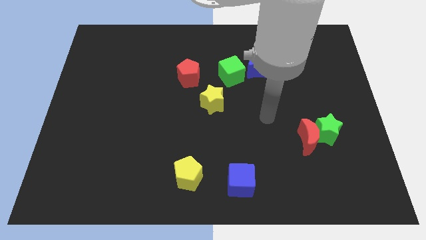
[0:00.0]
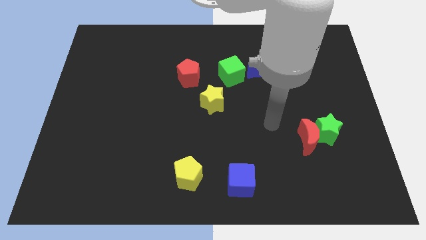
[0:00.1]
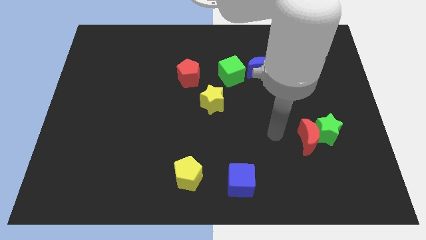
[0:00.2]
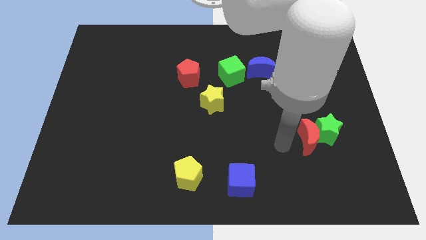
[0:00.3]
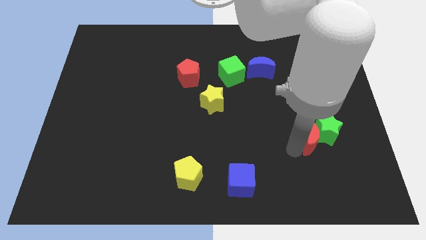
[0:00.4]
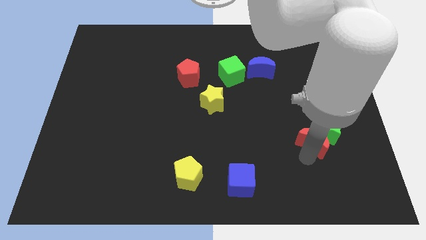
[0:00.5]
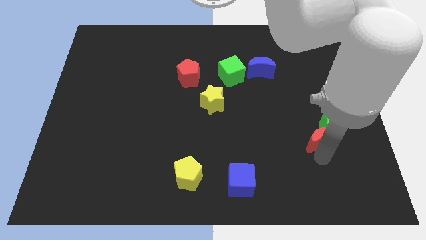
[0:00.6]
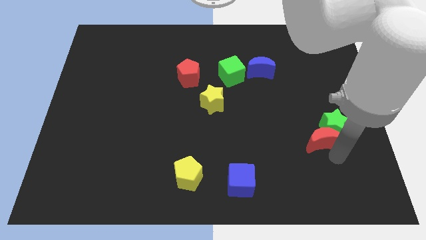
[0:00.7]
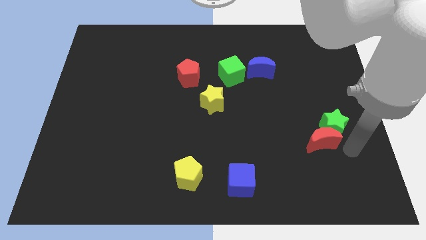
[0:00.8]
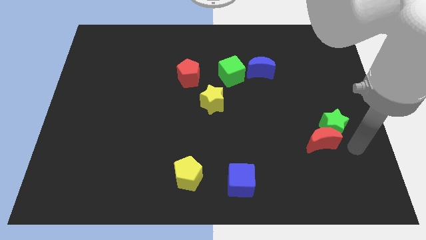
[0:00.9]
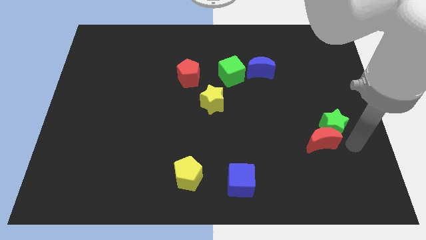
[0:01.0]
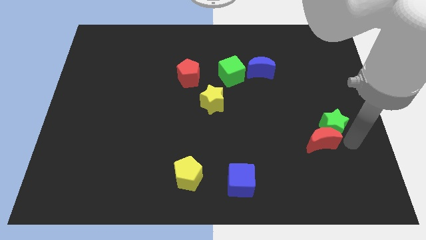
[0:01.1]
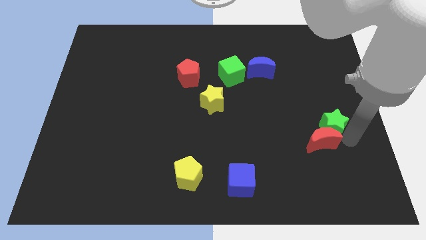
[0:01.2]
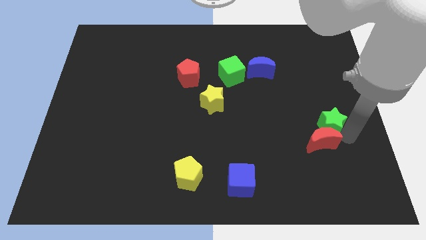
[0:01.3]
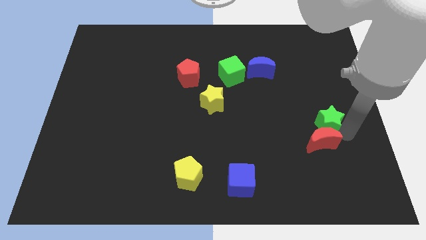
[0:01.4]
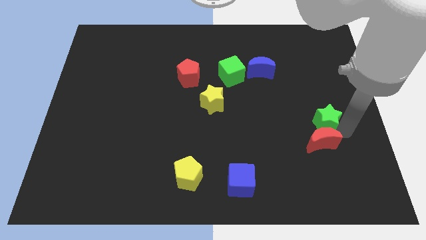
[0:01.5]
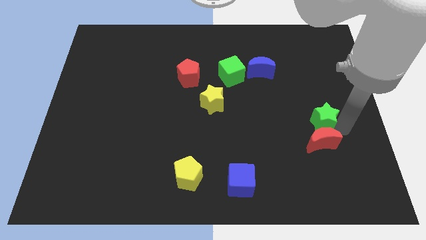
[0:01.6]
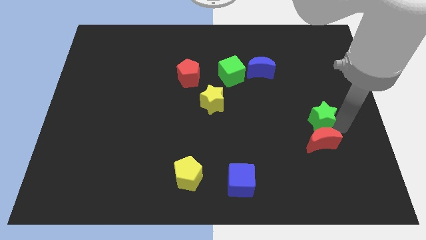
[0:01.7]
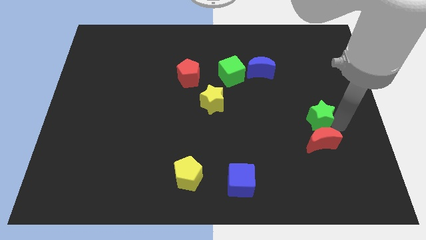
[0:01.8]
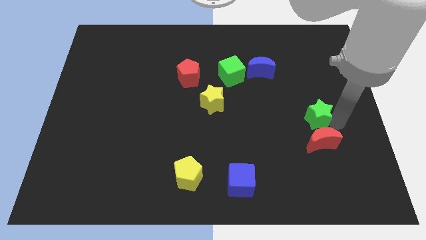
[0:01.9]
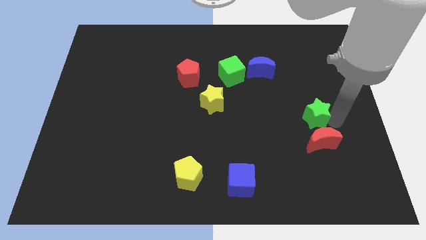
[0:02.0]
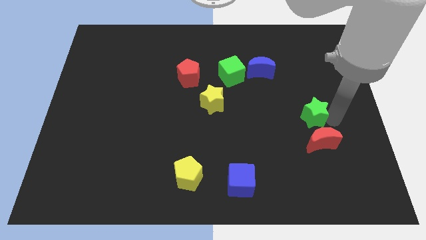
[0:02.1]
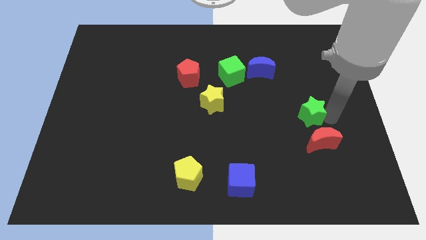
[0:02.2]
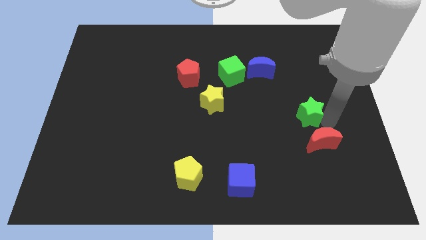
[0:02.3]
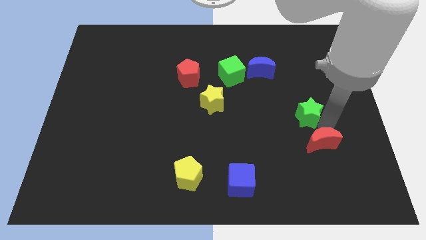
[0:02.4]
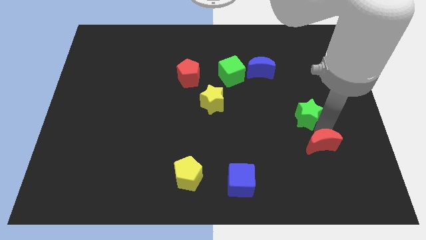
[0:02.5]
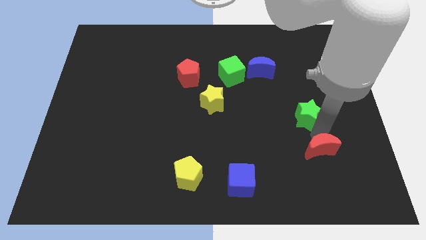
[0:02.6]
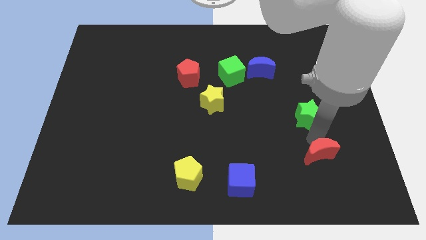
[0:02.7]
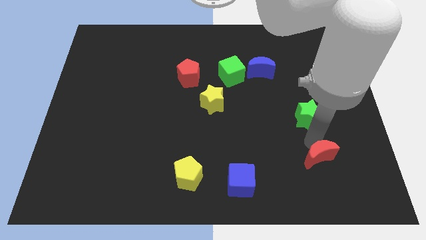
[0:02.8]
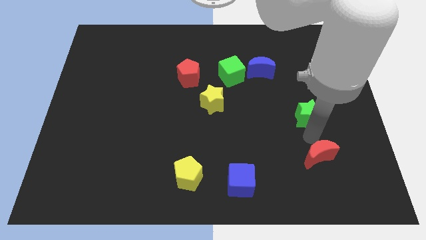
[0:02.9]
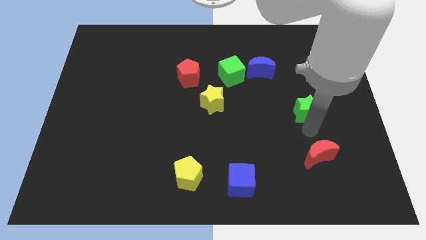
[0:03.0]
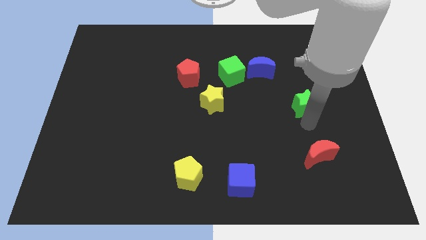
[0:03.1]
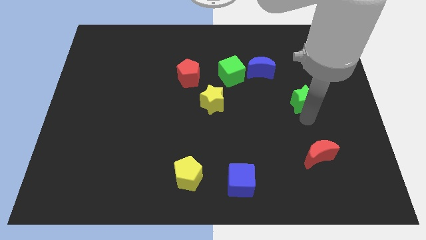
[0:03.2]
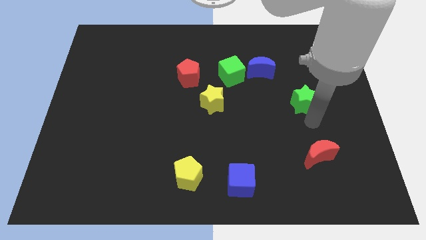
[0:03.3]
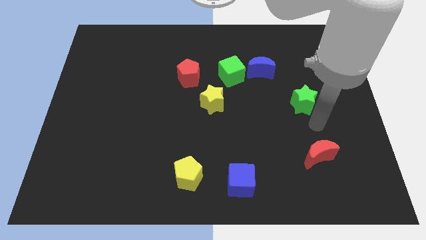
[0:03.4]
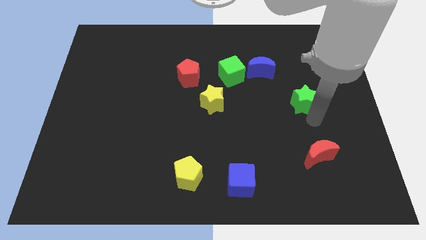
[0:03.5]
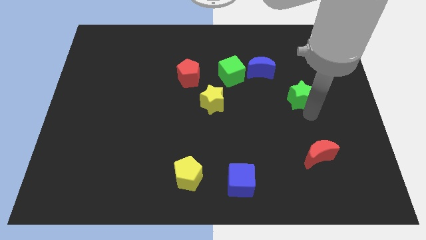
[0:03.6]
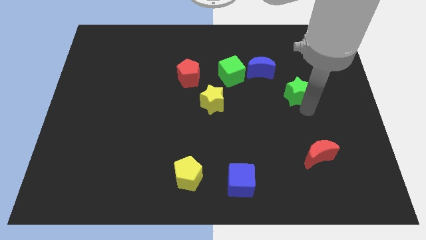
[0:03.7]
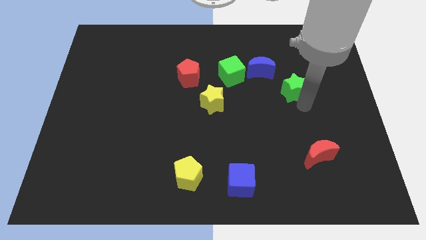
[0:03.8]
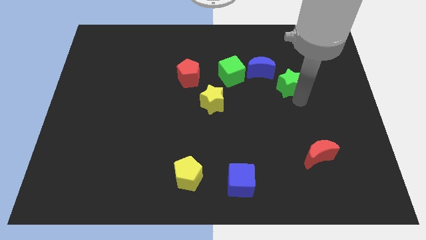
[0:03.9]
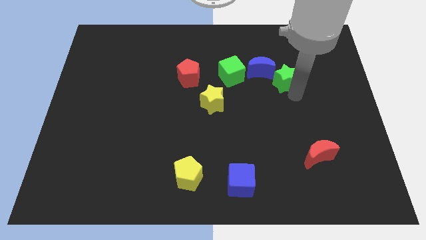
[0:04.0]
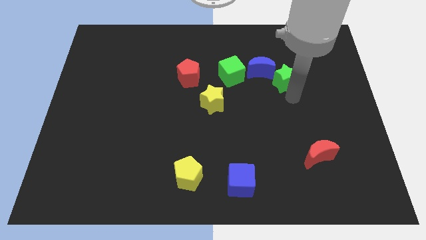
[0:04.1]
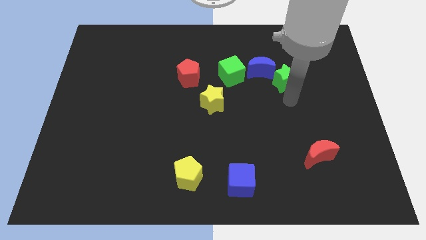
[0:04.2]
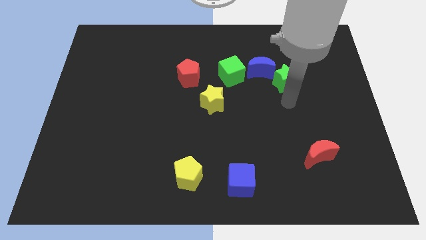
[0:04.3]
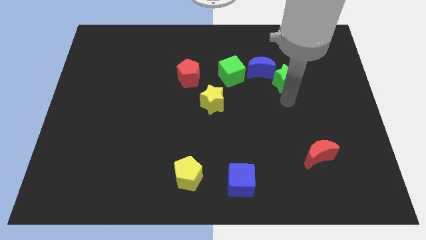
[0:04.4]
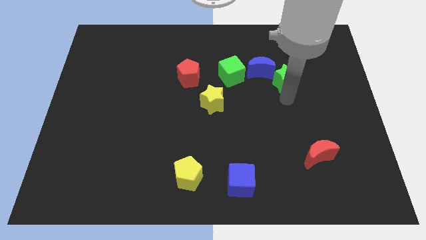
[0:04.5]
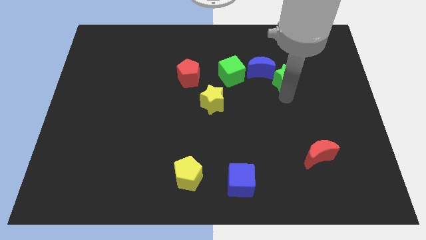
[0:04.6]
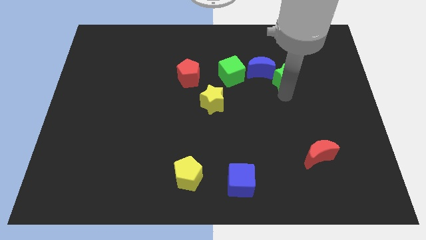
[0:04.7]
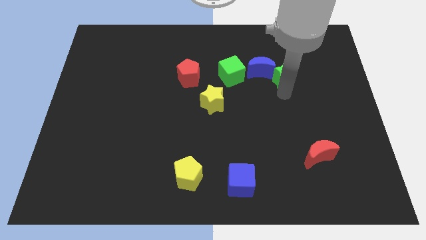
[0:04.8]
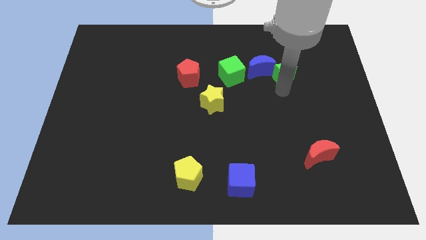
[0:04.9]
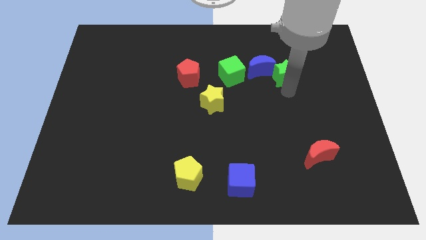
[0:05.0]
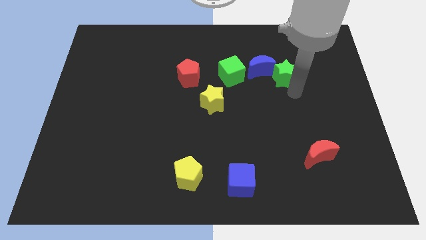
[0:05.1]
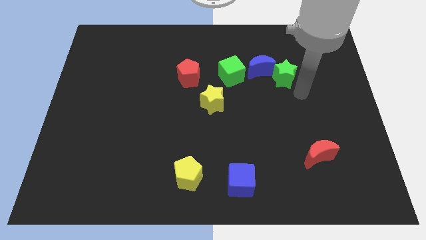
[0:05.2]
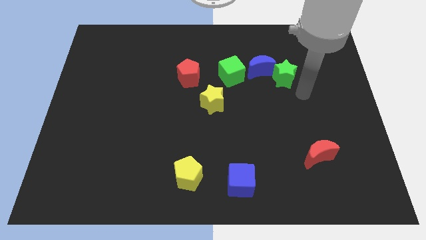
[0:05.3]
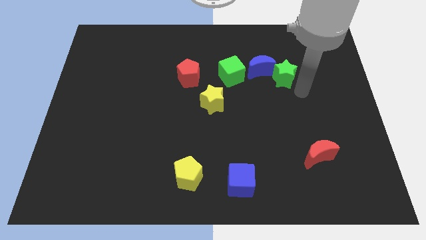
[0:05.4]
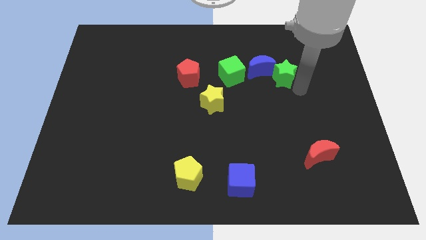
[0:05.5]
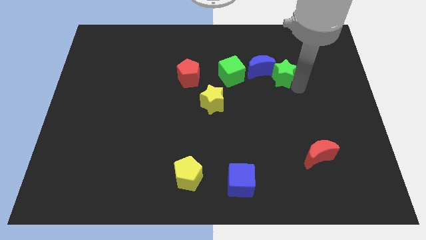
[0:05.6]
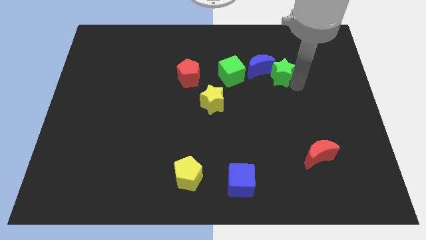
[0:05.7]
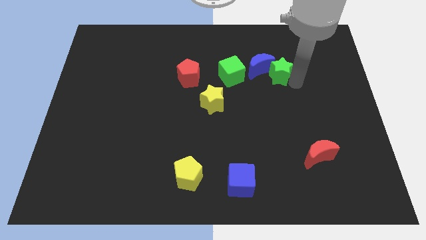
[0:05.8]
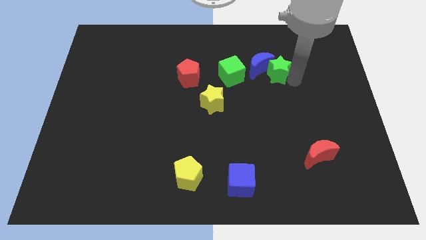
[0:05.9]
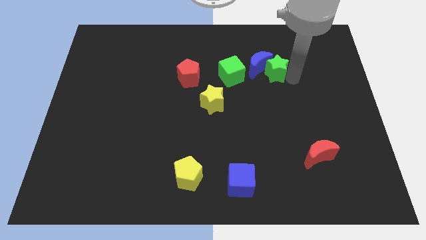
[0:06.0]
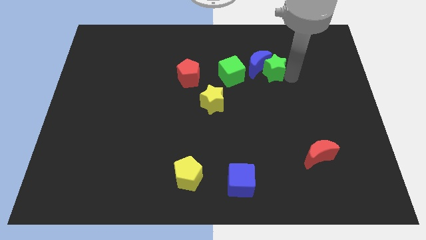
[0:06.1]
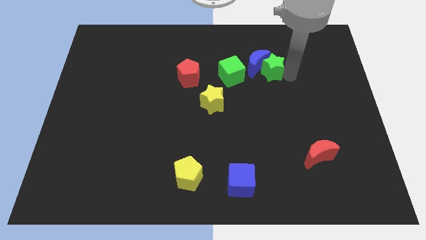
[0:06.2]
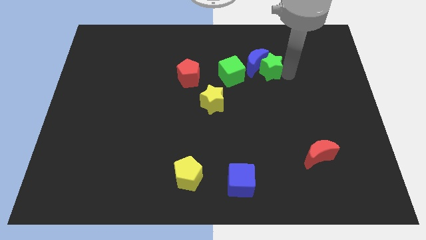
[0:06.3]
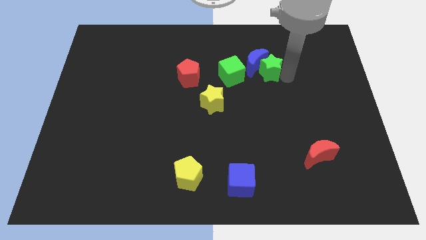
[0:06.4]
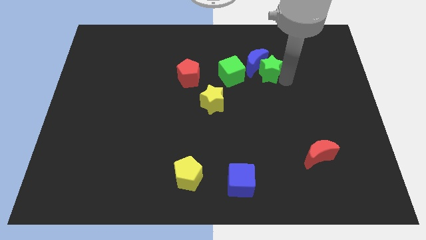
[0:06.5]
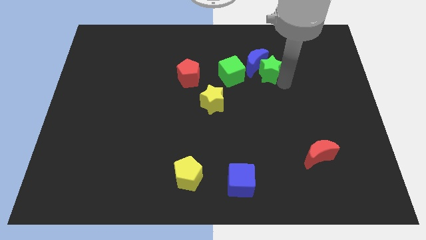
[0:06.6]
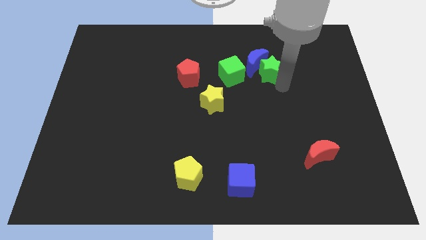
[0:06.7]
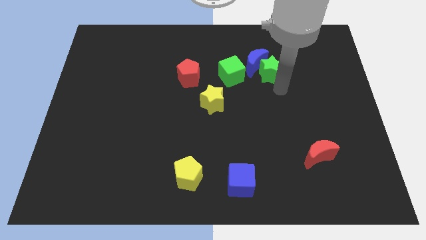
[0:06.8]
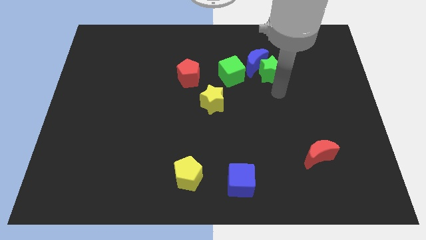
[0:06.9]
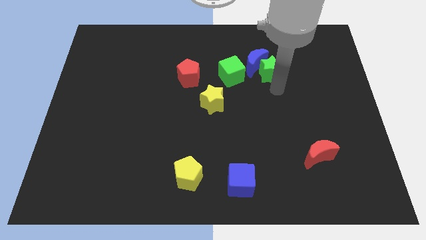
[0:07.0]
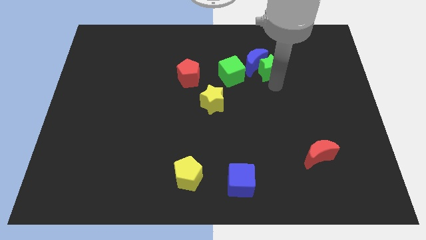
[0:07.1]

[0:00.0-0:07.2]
slide the green star up and then to the left

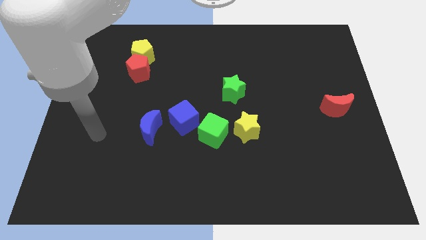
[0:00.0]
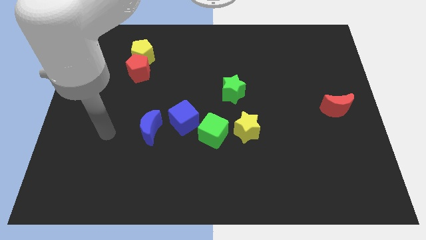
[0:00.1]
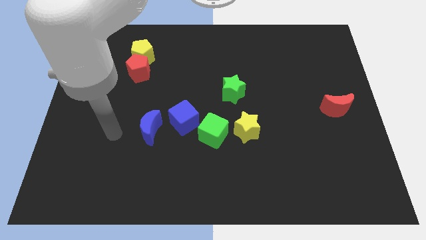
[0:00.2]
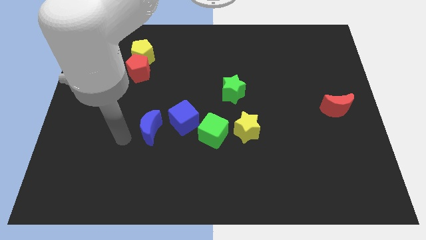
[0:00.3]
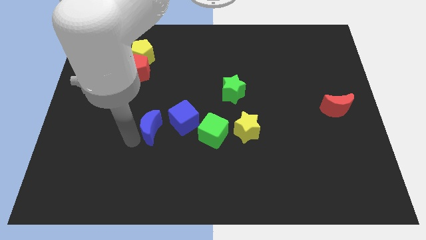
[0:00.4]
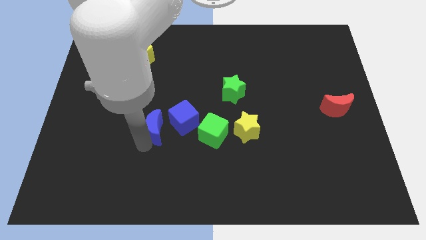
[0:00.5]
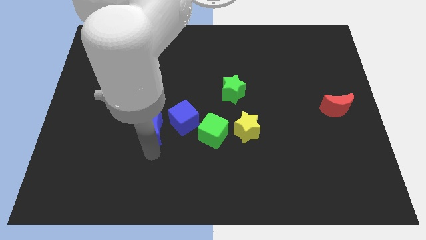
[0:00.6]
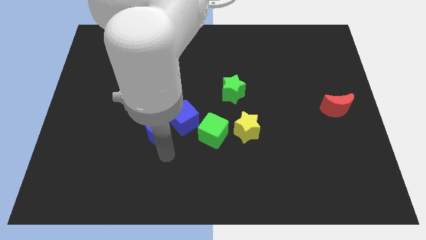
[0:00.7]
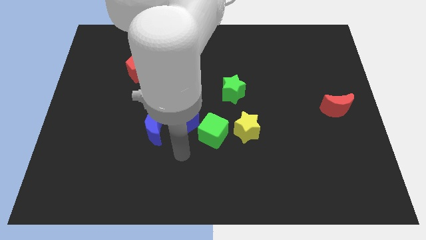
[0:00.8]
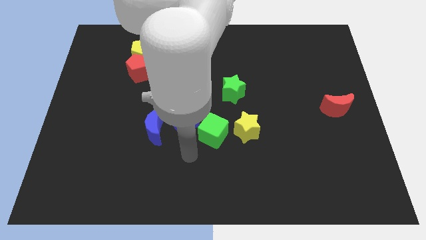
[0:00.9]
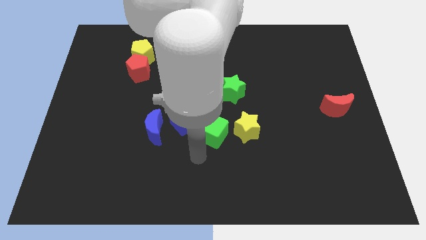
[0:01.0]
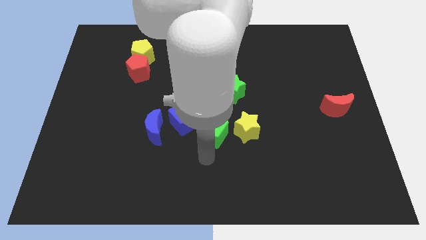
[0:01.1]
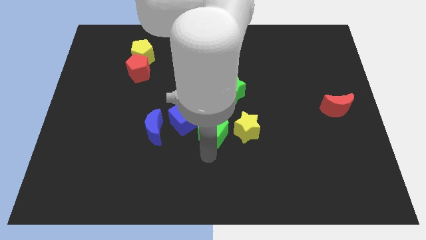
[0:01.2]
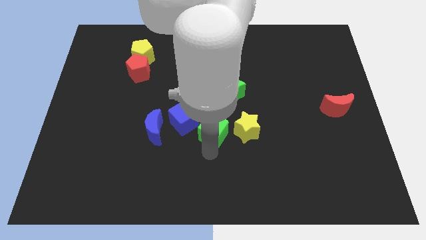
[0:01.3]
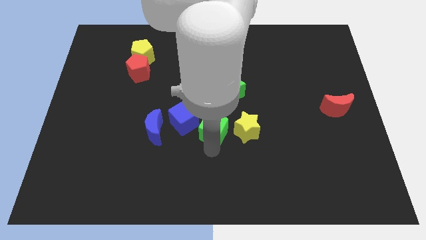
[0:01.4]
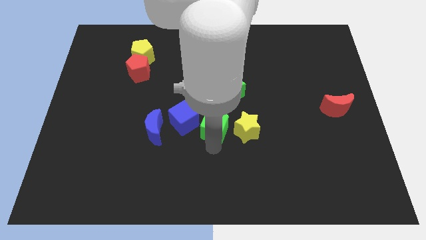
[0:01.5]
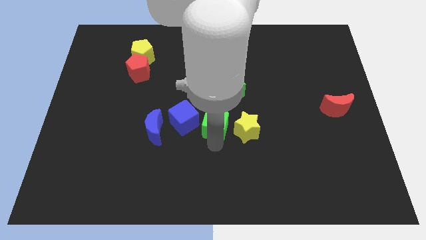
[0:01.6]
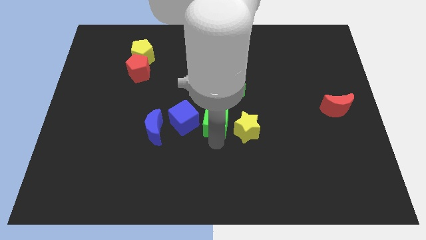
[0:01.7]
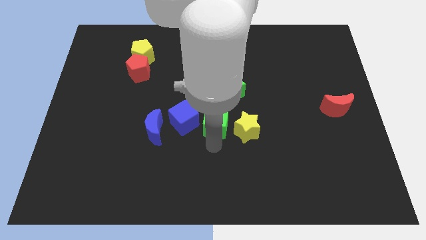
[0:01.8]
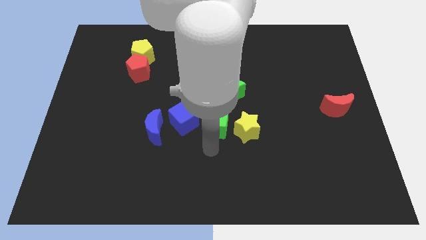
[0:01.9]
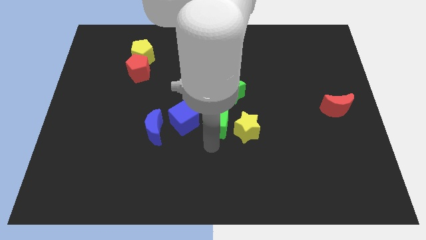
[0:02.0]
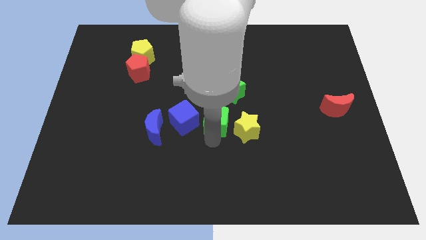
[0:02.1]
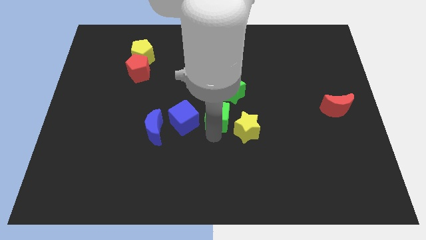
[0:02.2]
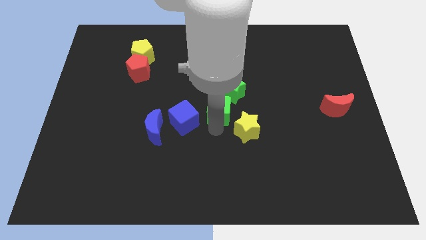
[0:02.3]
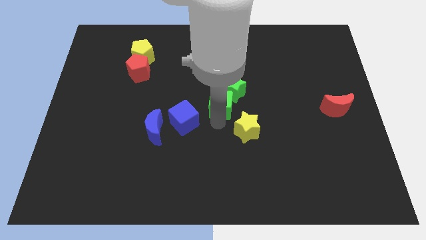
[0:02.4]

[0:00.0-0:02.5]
move the green cube somewhat upwards
